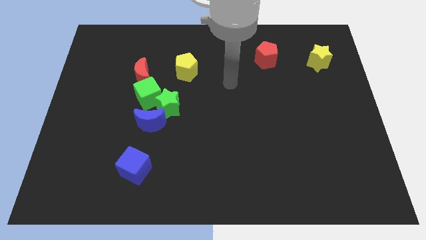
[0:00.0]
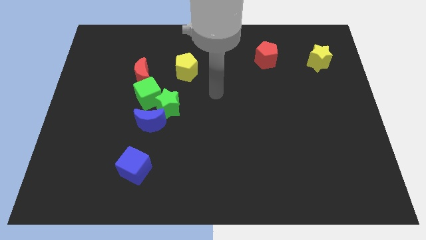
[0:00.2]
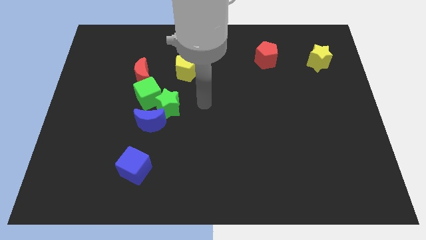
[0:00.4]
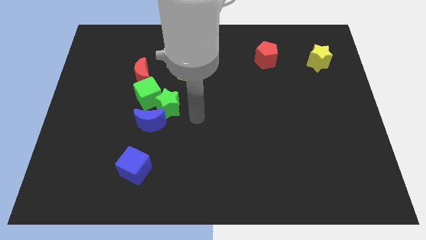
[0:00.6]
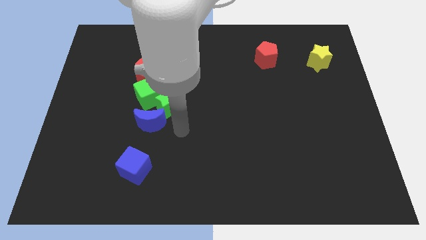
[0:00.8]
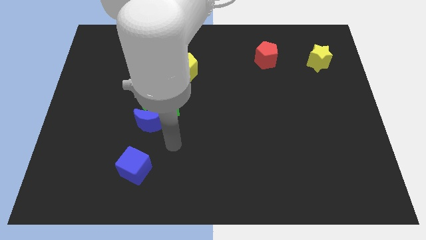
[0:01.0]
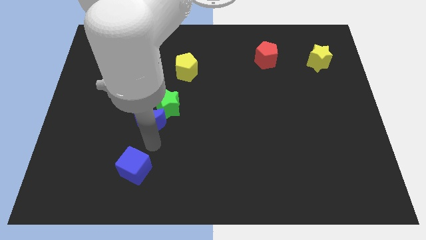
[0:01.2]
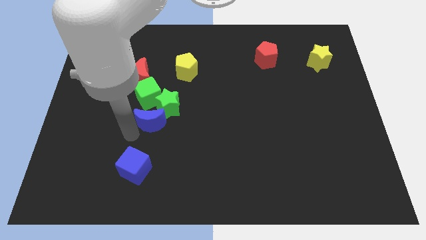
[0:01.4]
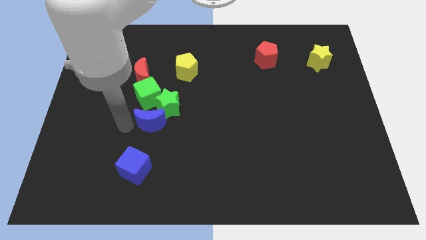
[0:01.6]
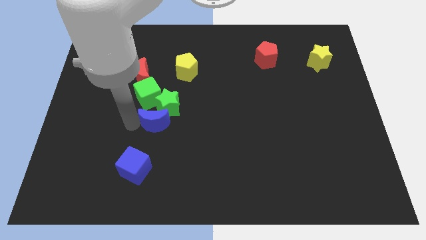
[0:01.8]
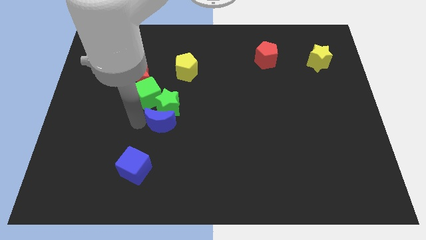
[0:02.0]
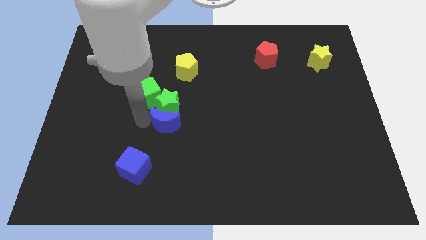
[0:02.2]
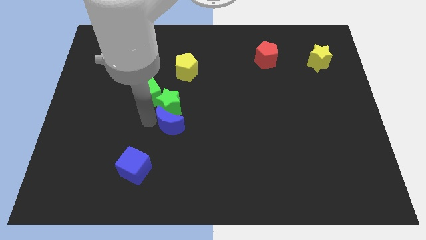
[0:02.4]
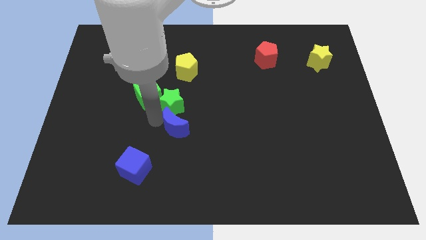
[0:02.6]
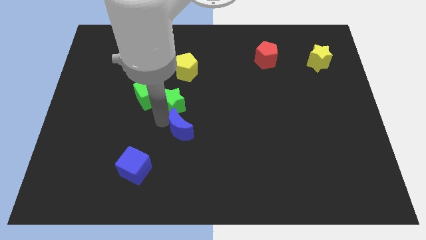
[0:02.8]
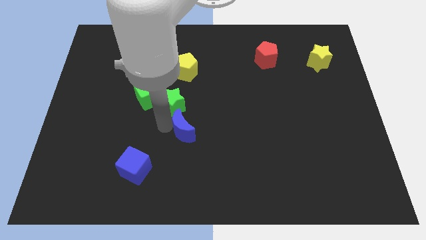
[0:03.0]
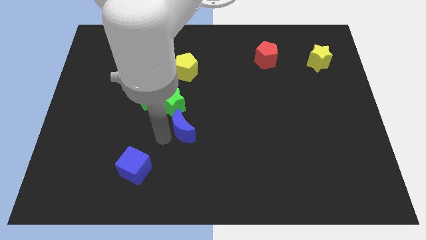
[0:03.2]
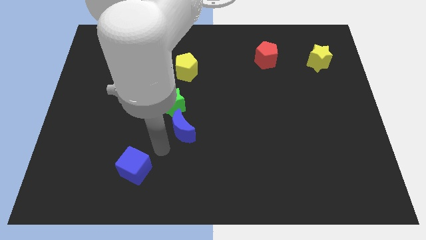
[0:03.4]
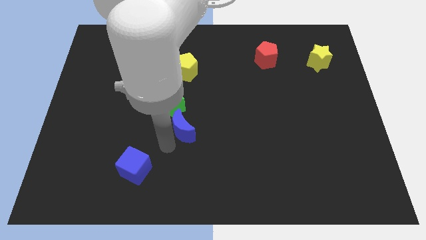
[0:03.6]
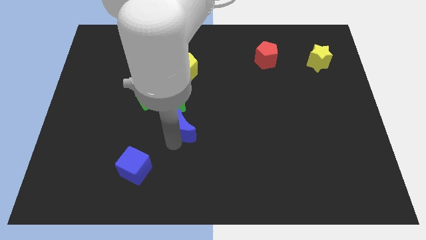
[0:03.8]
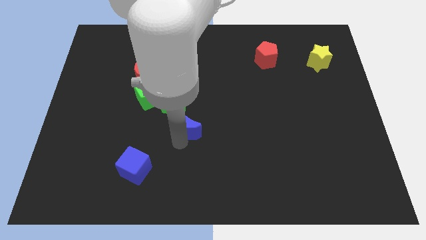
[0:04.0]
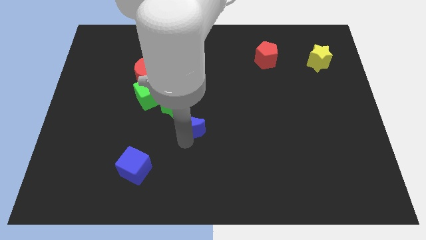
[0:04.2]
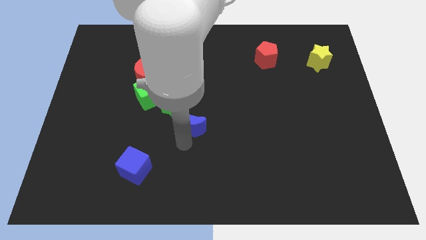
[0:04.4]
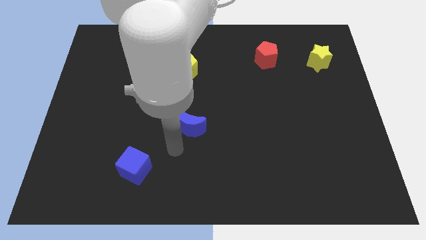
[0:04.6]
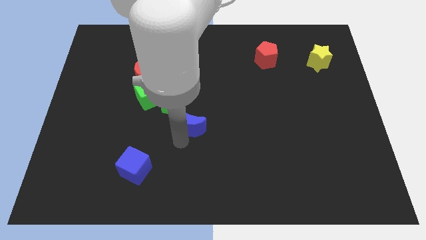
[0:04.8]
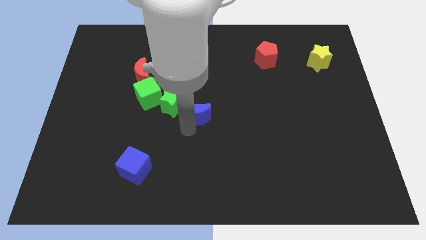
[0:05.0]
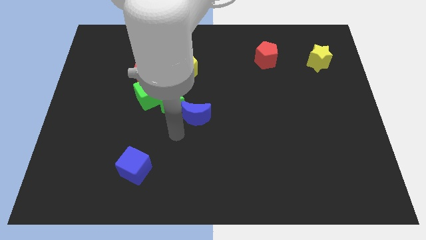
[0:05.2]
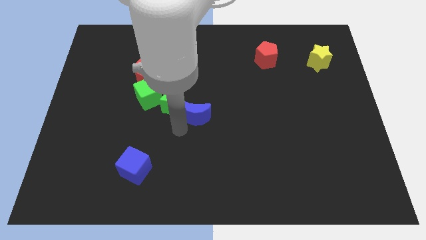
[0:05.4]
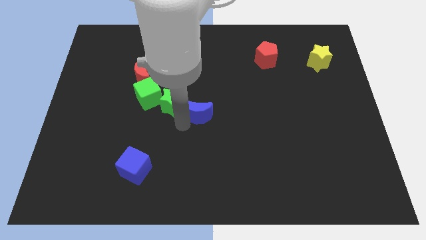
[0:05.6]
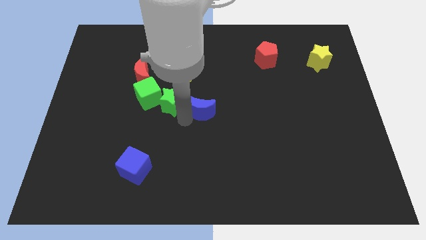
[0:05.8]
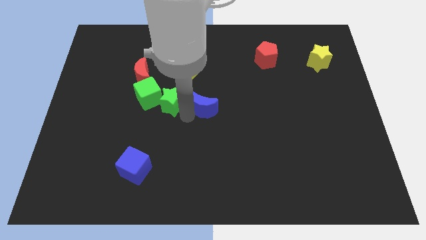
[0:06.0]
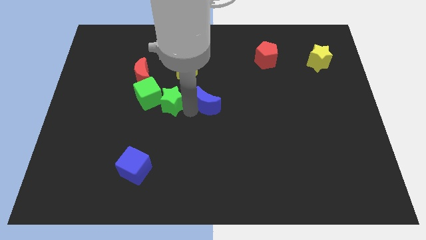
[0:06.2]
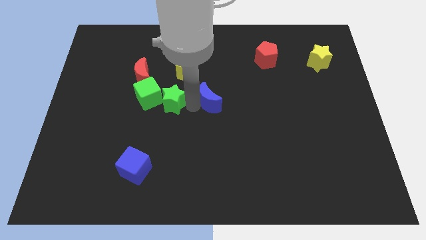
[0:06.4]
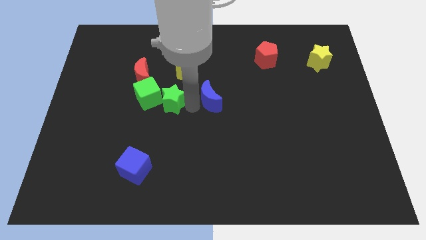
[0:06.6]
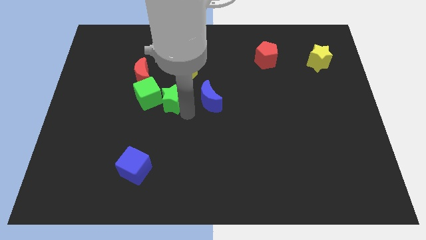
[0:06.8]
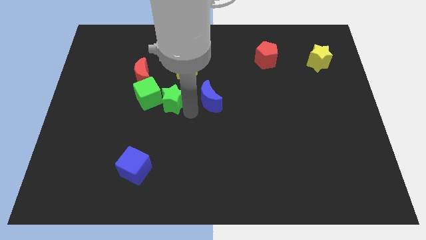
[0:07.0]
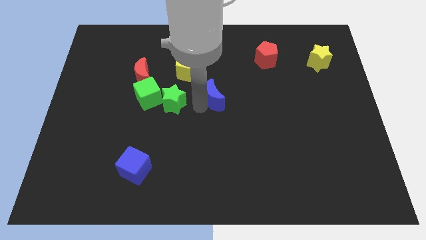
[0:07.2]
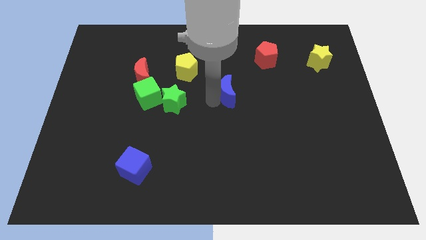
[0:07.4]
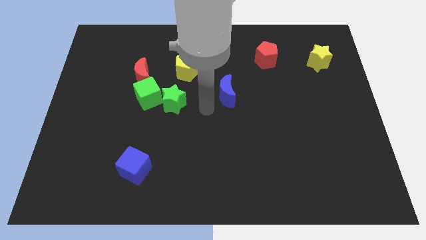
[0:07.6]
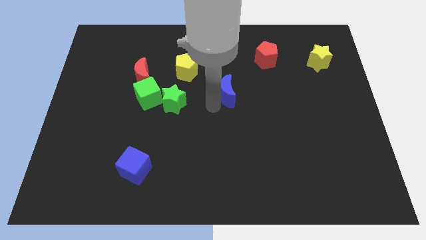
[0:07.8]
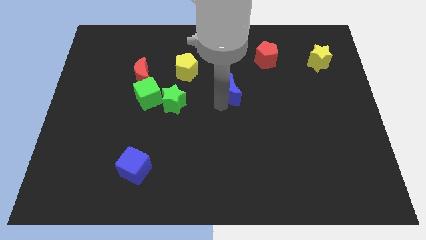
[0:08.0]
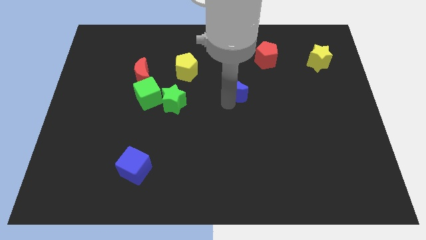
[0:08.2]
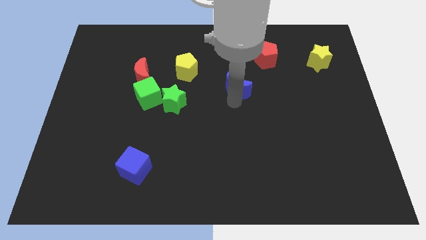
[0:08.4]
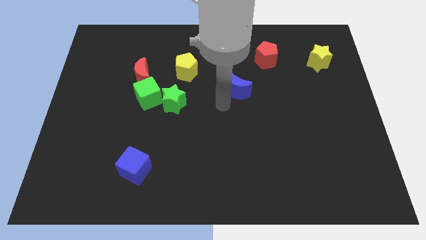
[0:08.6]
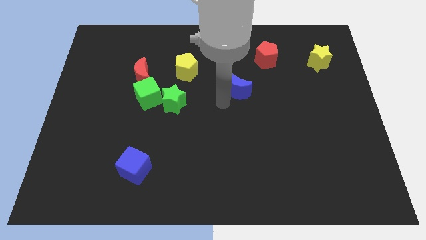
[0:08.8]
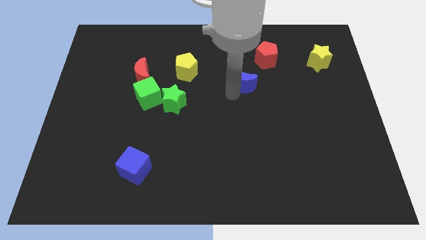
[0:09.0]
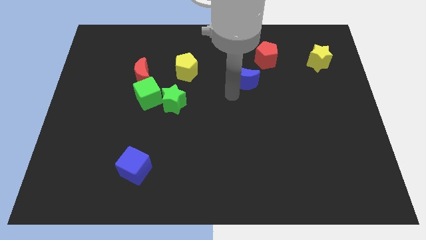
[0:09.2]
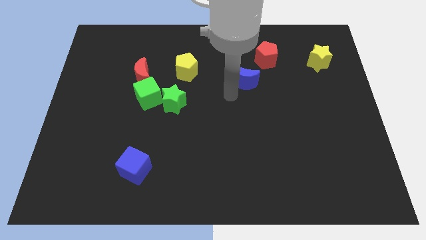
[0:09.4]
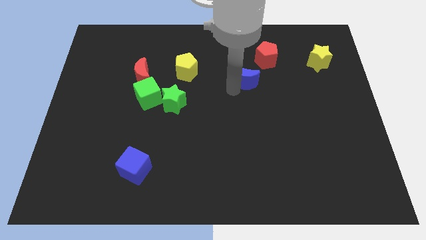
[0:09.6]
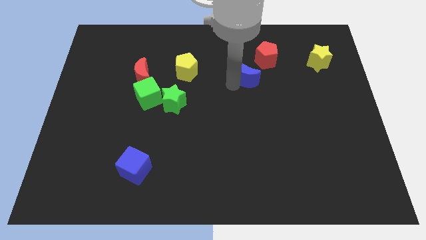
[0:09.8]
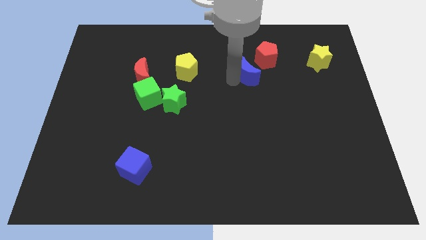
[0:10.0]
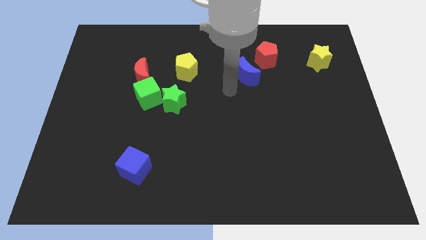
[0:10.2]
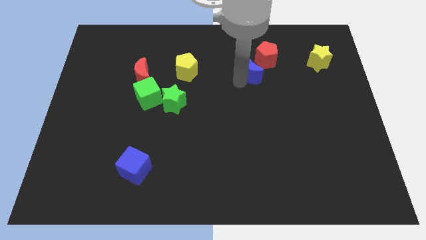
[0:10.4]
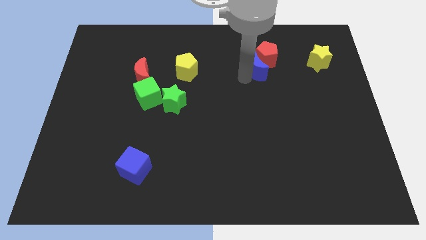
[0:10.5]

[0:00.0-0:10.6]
move the blue moon close to the red pentagon

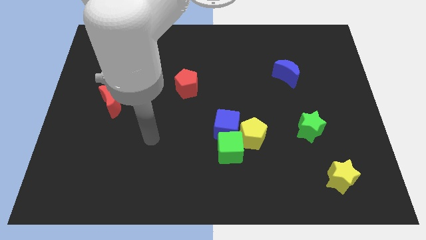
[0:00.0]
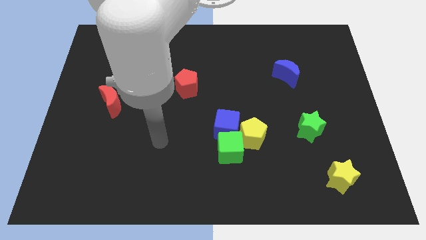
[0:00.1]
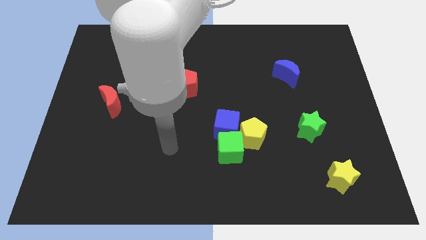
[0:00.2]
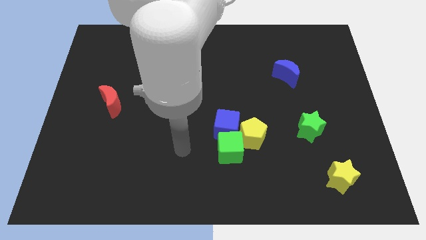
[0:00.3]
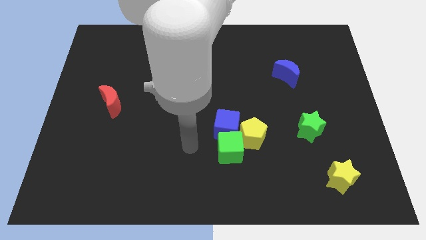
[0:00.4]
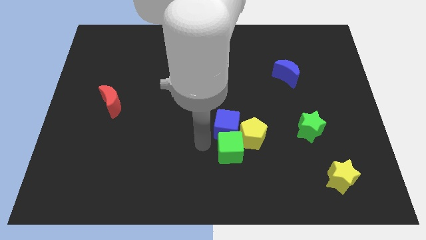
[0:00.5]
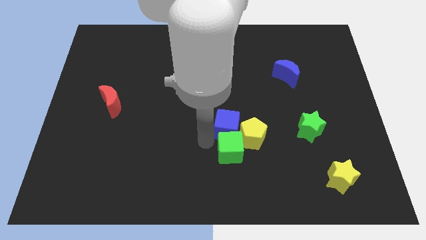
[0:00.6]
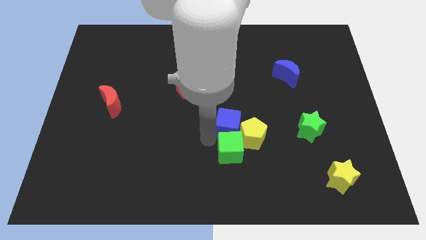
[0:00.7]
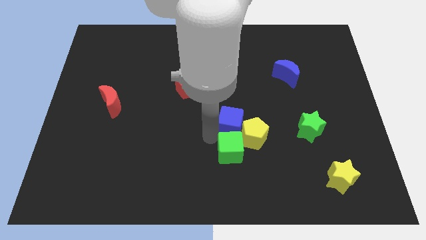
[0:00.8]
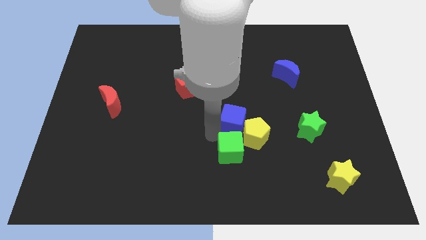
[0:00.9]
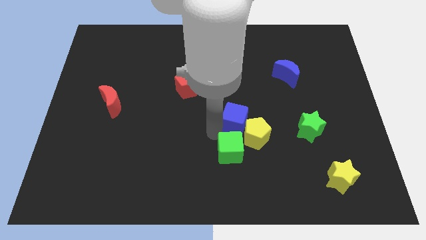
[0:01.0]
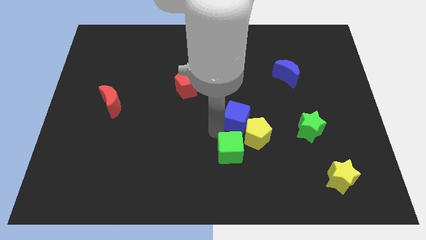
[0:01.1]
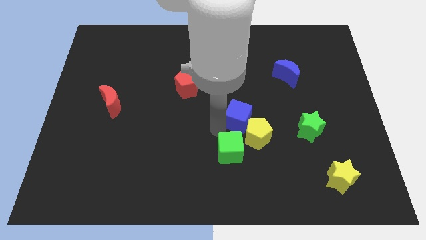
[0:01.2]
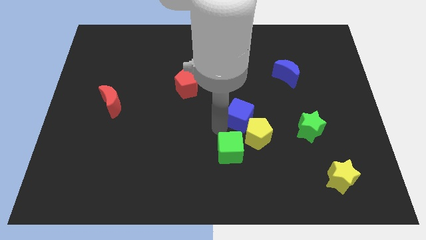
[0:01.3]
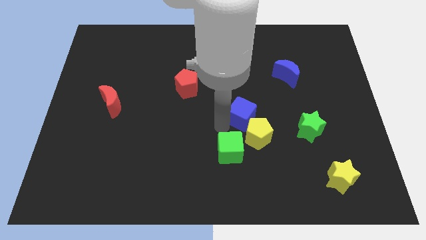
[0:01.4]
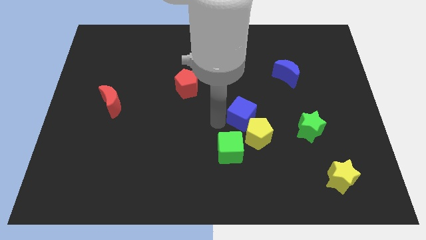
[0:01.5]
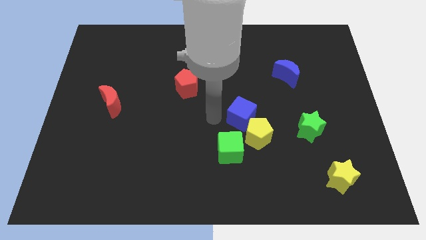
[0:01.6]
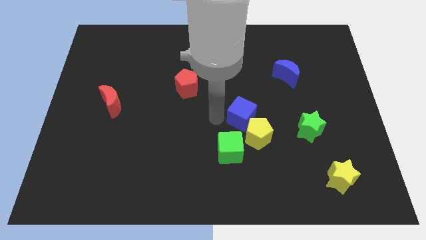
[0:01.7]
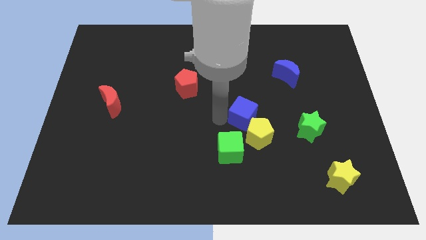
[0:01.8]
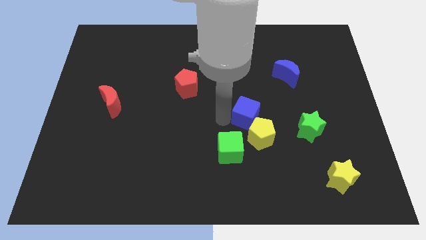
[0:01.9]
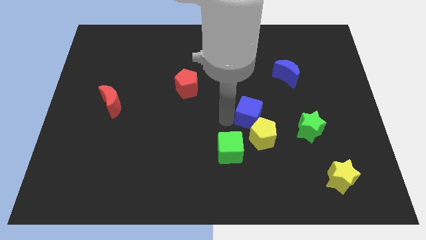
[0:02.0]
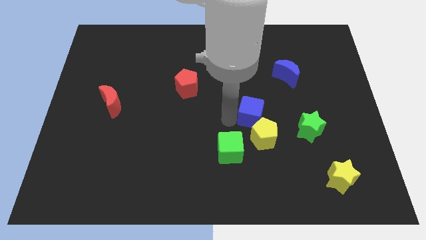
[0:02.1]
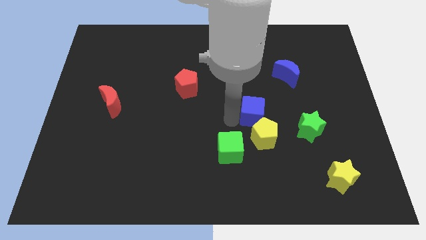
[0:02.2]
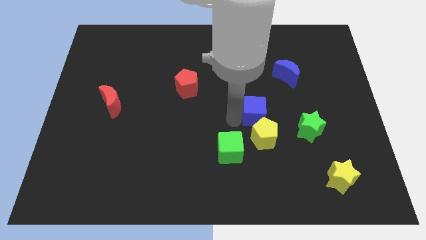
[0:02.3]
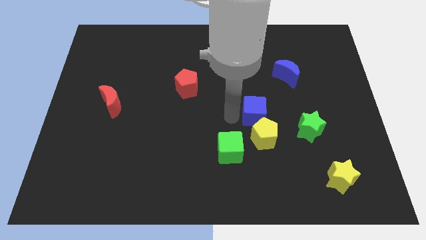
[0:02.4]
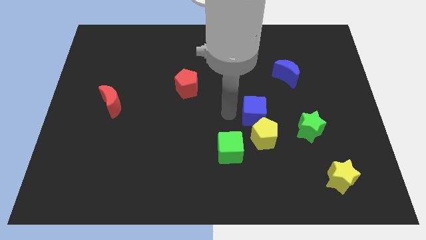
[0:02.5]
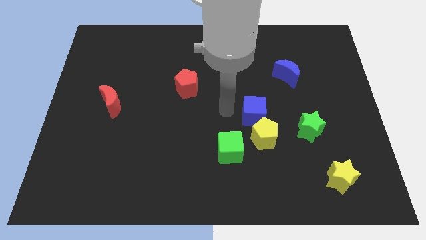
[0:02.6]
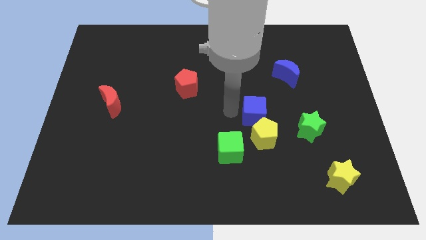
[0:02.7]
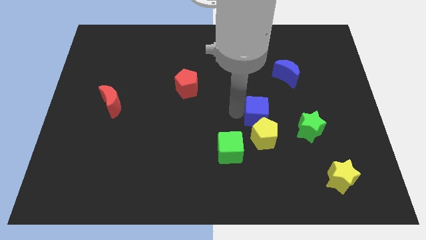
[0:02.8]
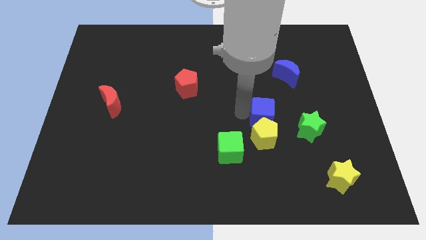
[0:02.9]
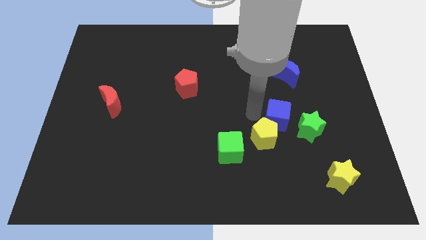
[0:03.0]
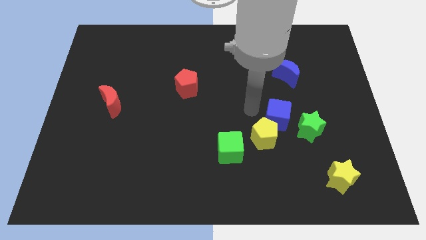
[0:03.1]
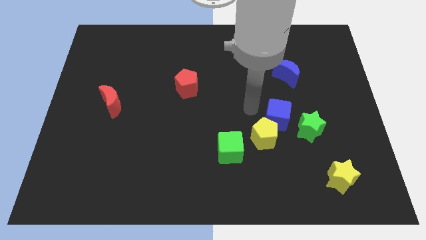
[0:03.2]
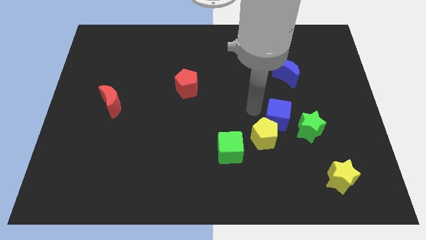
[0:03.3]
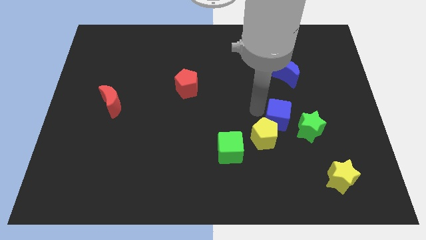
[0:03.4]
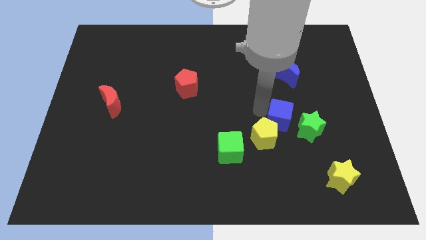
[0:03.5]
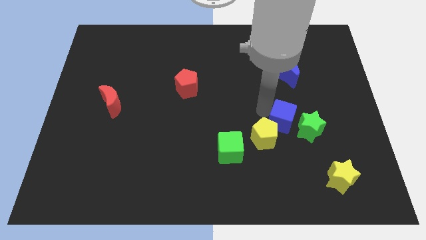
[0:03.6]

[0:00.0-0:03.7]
put the blue cube close to the green star
